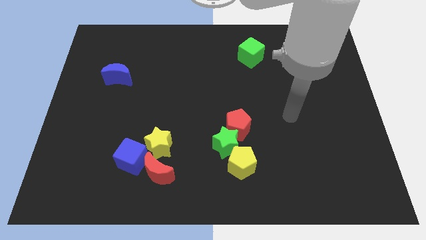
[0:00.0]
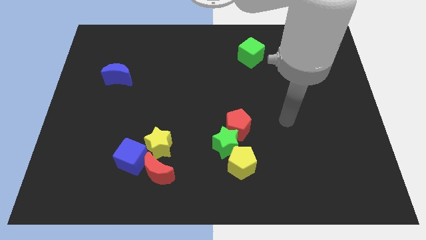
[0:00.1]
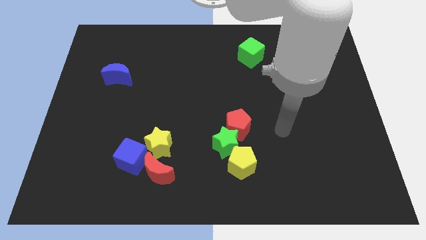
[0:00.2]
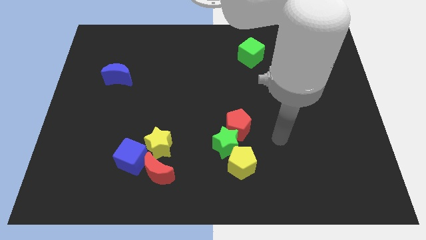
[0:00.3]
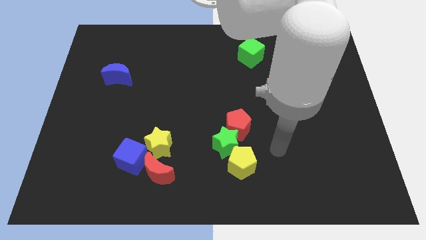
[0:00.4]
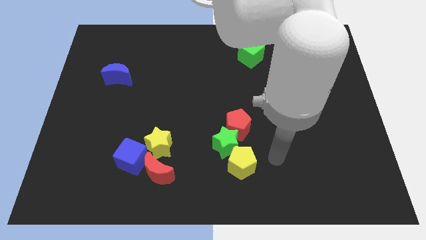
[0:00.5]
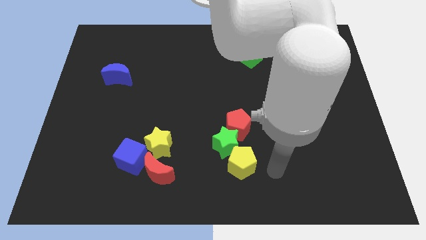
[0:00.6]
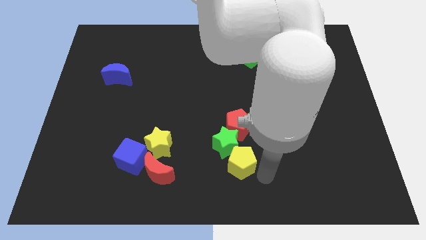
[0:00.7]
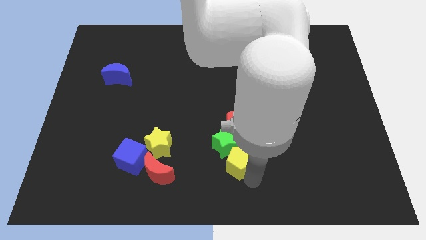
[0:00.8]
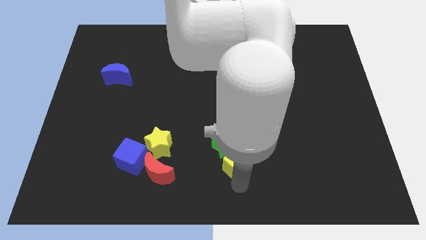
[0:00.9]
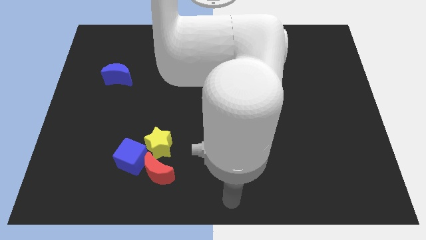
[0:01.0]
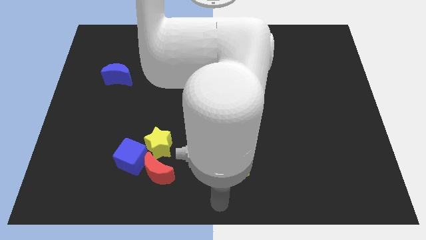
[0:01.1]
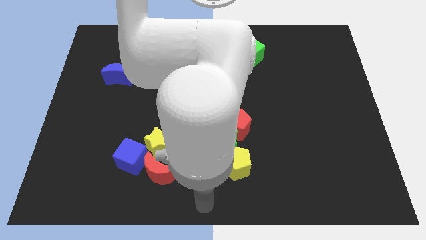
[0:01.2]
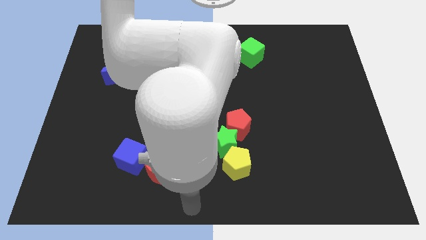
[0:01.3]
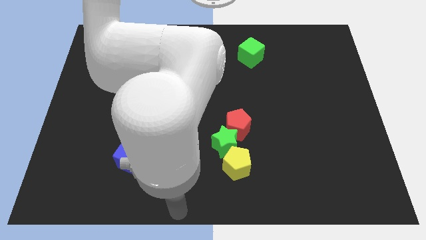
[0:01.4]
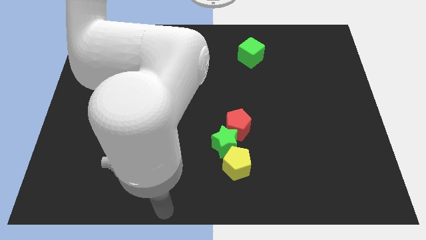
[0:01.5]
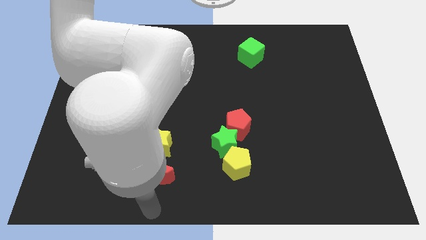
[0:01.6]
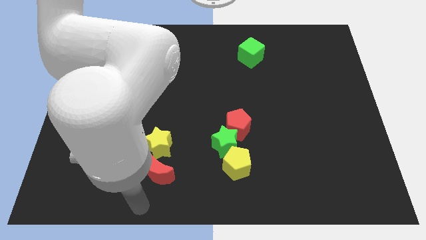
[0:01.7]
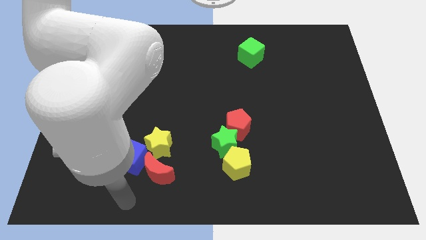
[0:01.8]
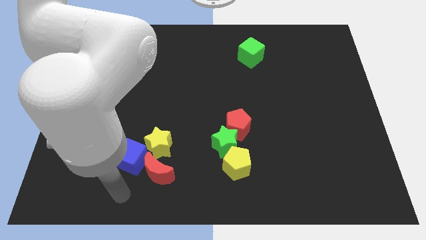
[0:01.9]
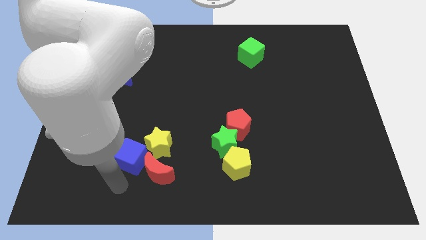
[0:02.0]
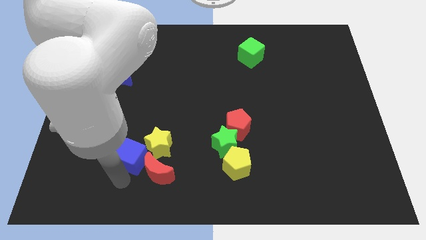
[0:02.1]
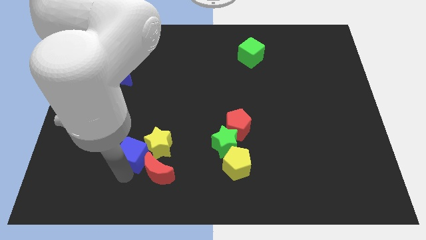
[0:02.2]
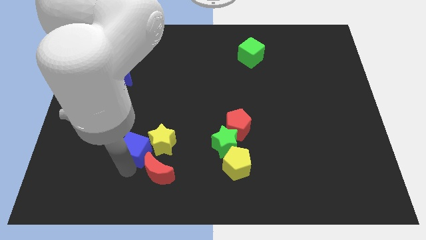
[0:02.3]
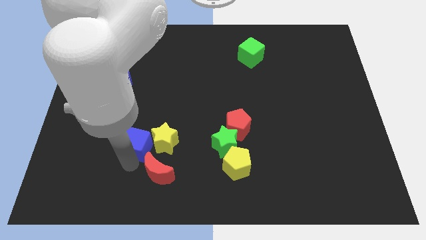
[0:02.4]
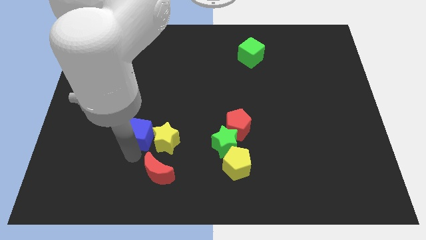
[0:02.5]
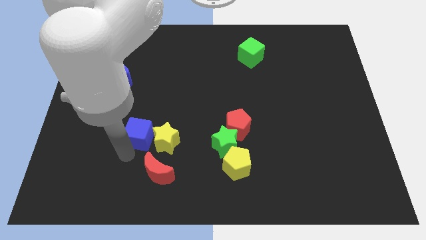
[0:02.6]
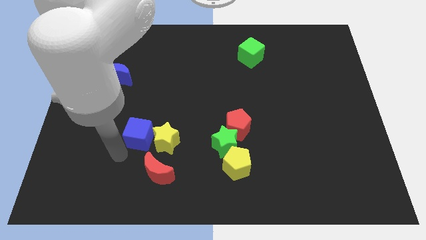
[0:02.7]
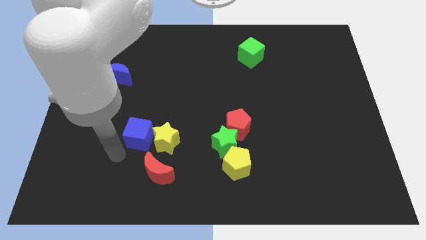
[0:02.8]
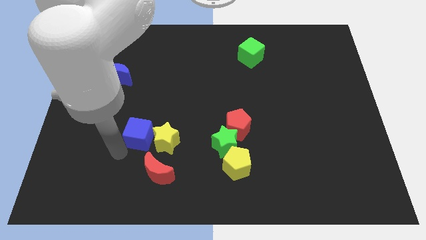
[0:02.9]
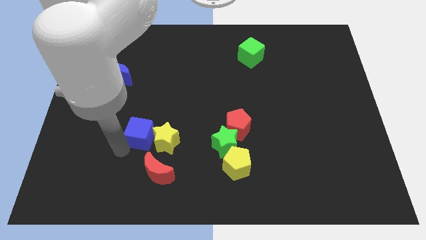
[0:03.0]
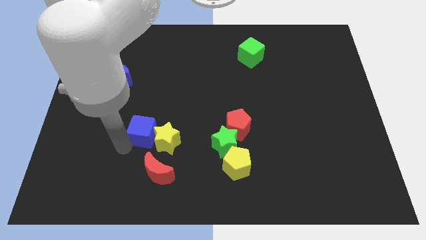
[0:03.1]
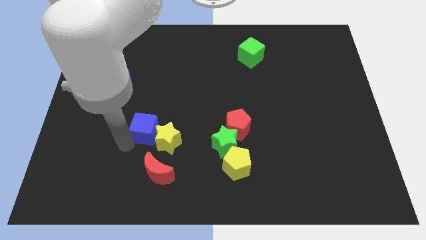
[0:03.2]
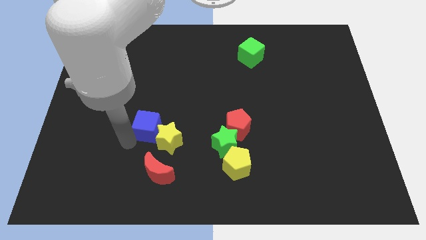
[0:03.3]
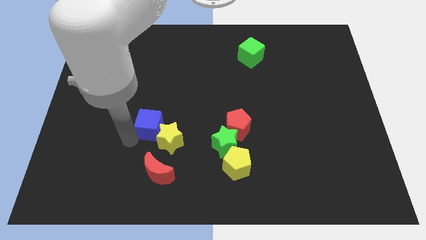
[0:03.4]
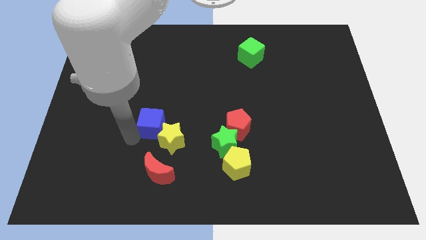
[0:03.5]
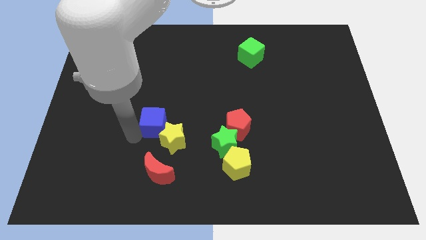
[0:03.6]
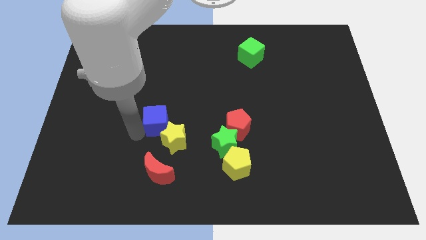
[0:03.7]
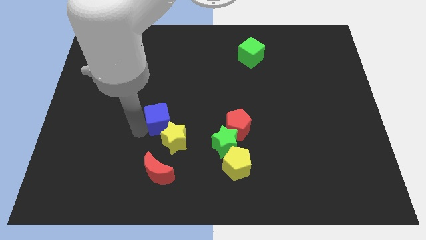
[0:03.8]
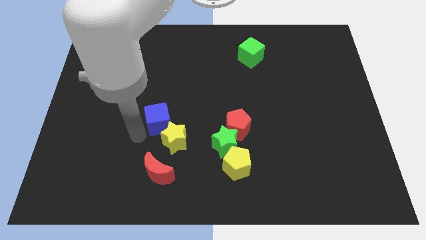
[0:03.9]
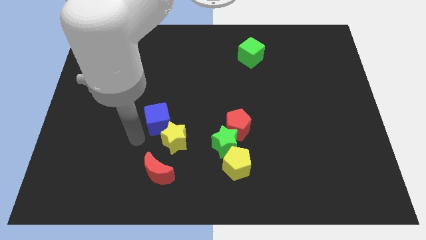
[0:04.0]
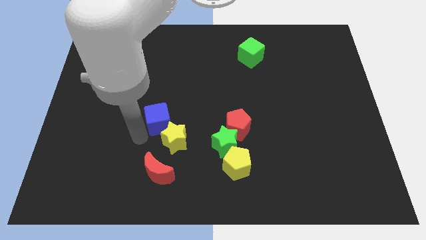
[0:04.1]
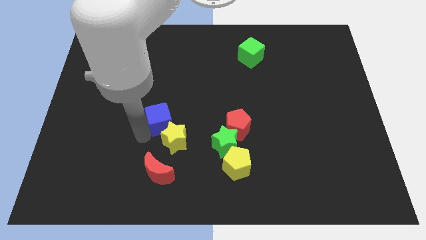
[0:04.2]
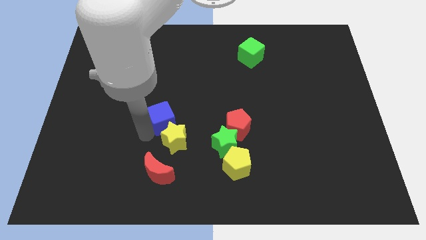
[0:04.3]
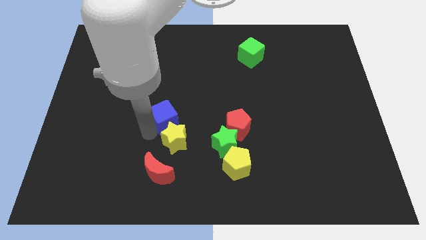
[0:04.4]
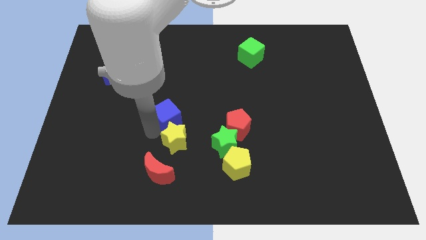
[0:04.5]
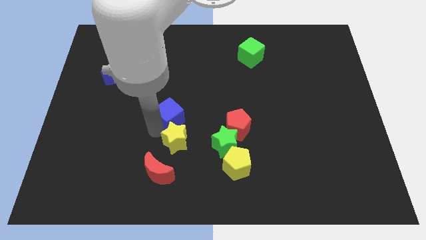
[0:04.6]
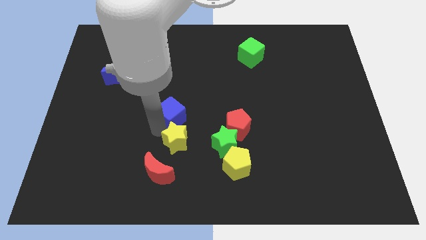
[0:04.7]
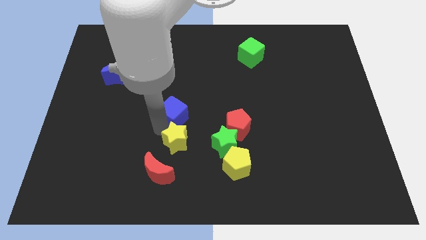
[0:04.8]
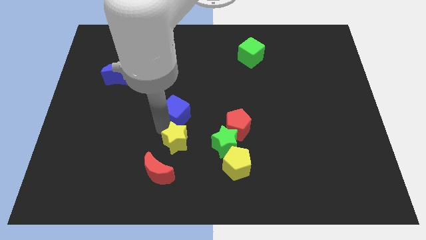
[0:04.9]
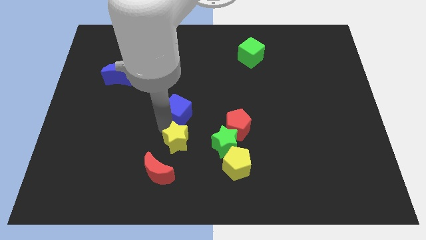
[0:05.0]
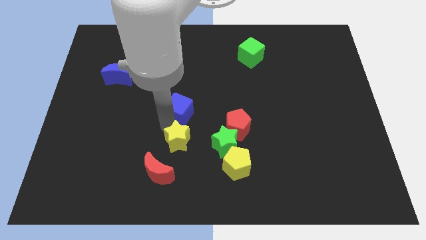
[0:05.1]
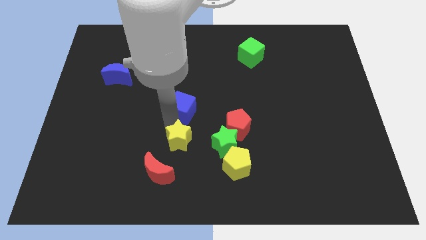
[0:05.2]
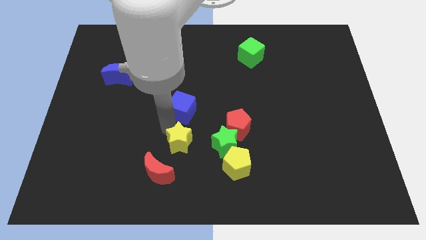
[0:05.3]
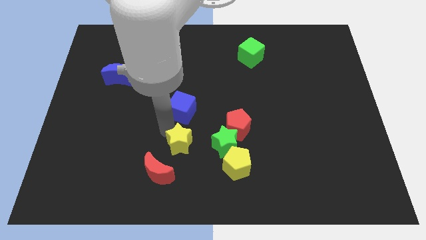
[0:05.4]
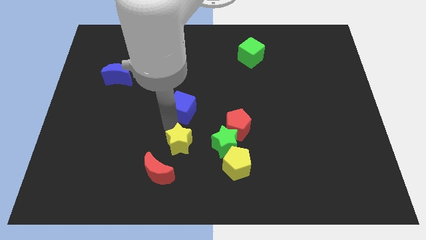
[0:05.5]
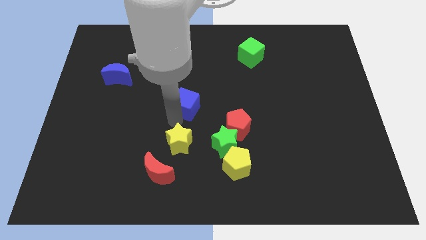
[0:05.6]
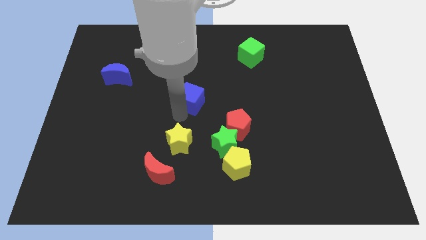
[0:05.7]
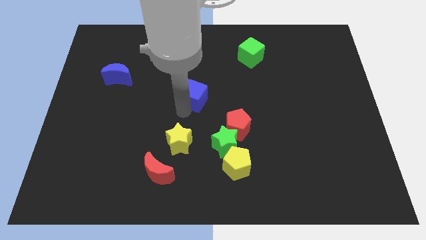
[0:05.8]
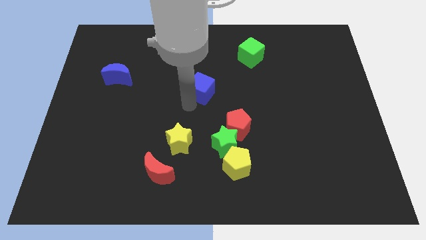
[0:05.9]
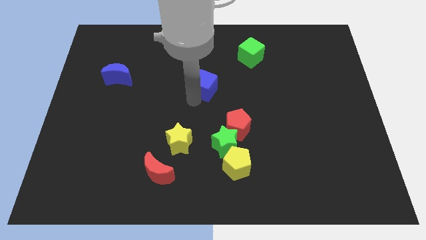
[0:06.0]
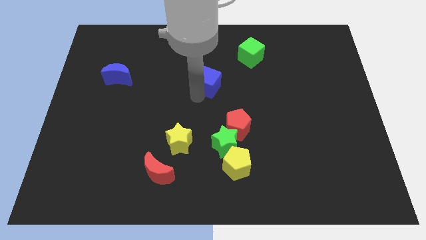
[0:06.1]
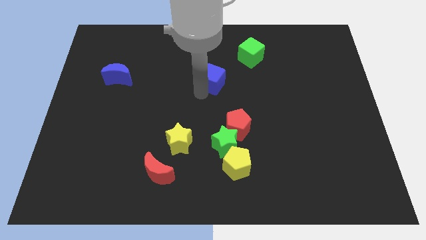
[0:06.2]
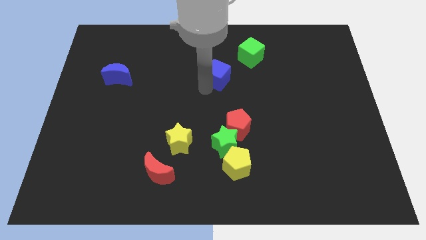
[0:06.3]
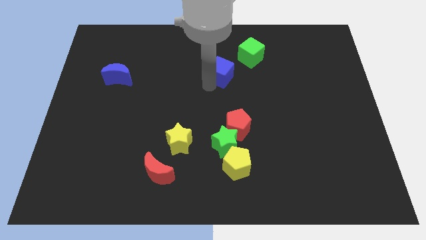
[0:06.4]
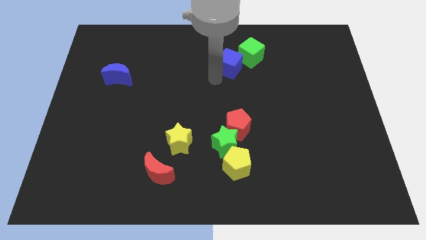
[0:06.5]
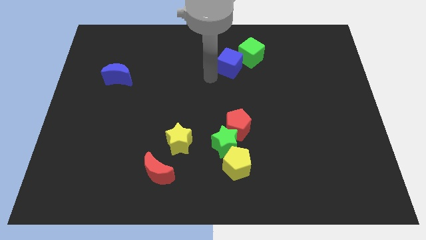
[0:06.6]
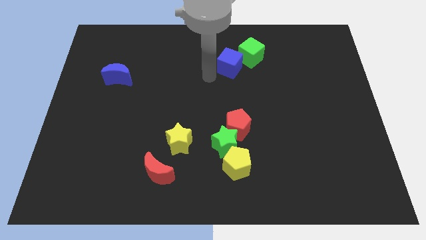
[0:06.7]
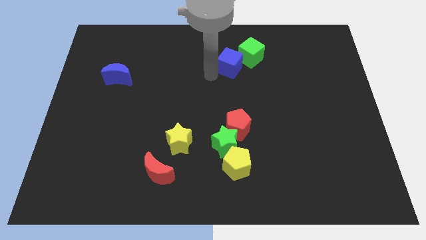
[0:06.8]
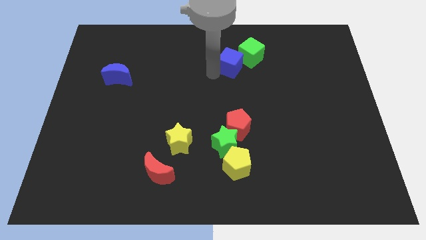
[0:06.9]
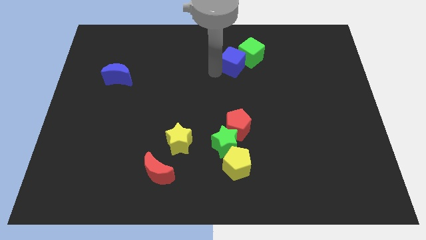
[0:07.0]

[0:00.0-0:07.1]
push the blue cube to the green cube

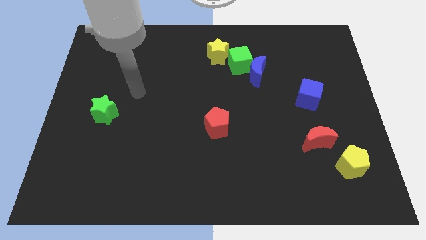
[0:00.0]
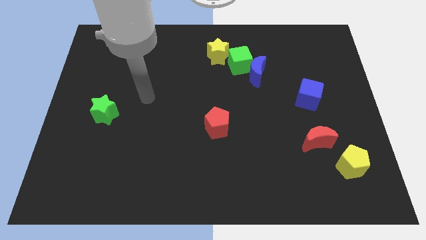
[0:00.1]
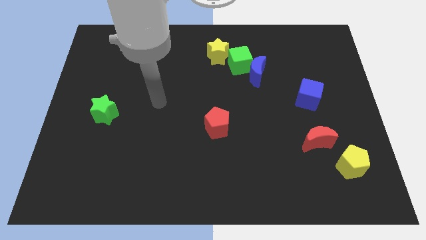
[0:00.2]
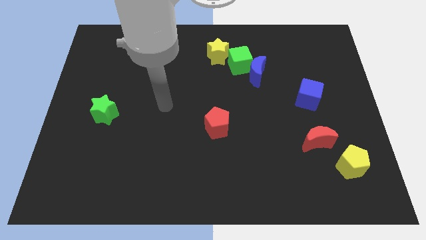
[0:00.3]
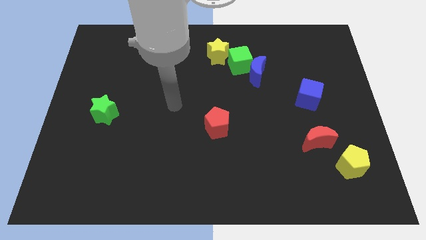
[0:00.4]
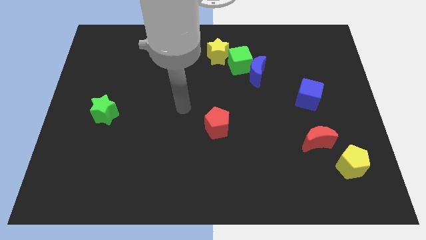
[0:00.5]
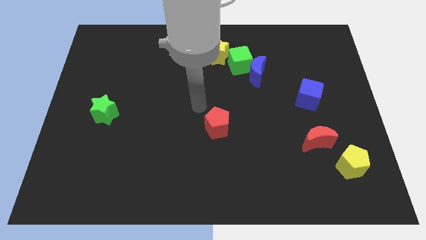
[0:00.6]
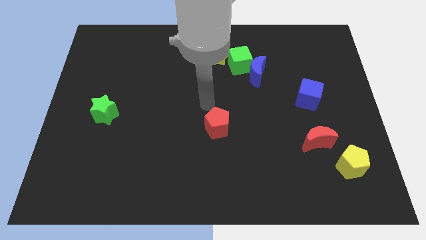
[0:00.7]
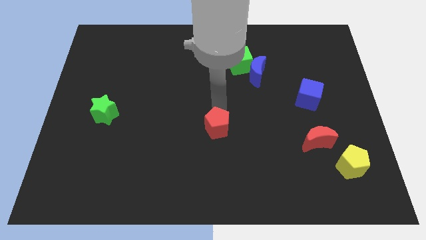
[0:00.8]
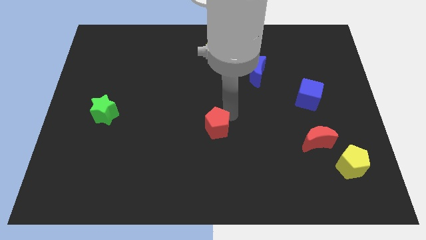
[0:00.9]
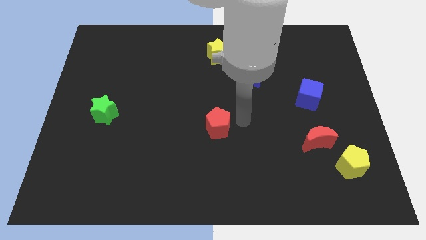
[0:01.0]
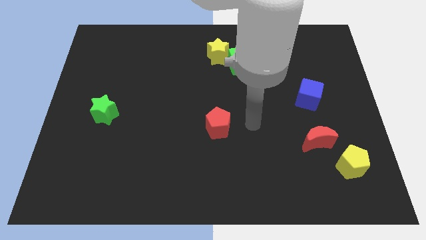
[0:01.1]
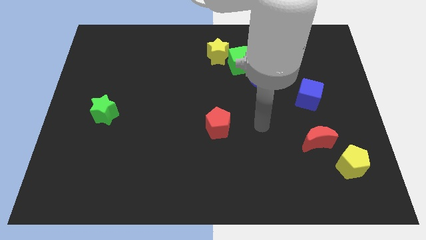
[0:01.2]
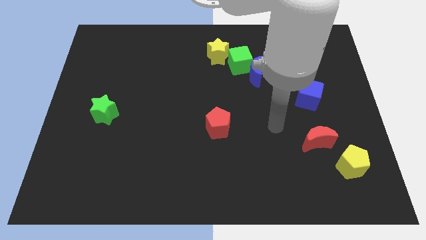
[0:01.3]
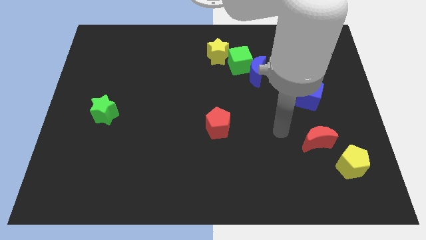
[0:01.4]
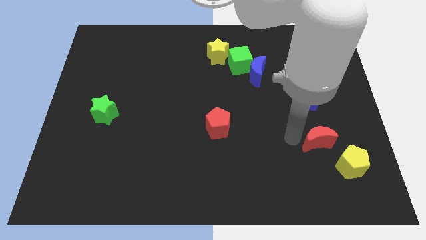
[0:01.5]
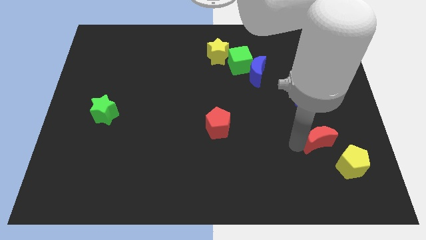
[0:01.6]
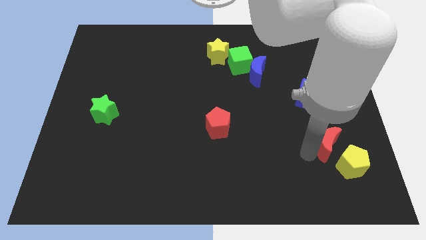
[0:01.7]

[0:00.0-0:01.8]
move the yellow pentagon towards the red moon
